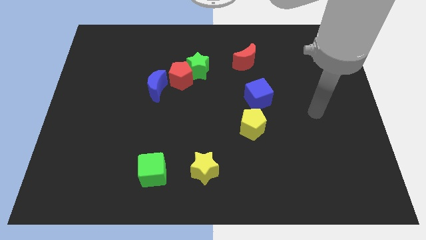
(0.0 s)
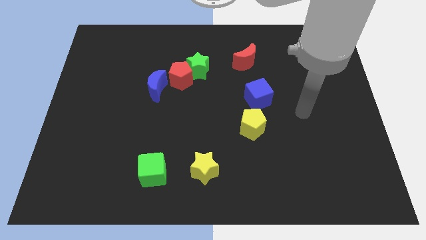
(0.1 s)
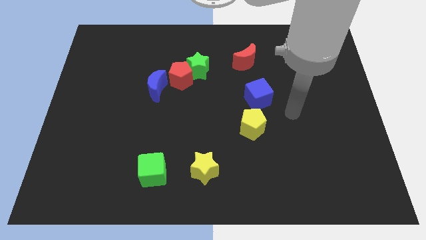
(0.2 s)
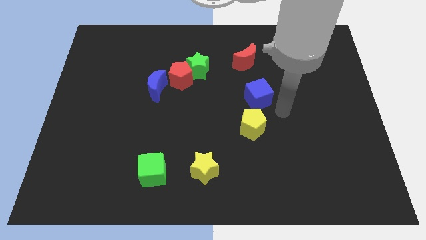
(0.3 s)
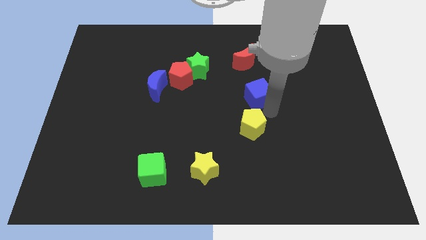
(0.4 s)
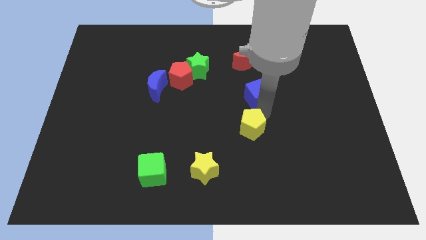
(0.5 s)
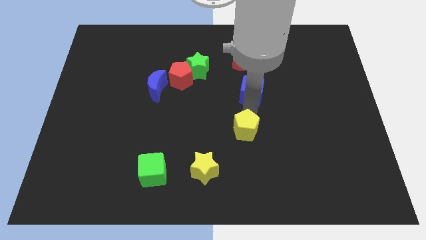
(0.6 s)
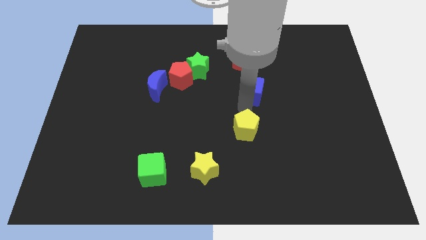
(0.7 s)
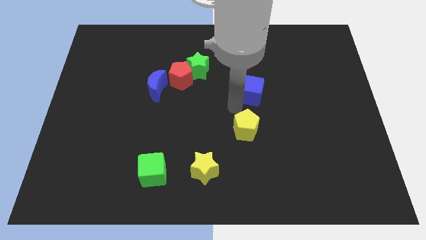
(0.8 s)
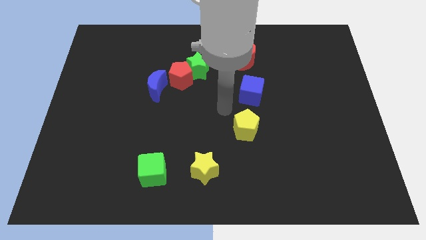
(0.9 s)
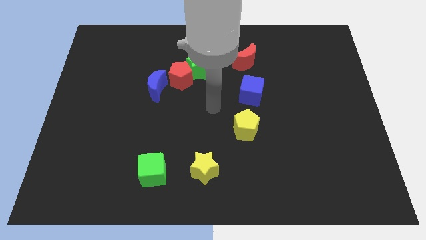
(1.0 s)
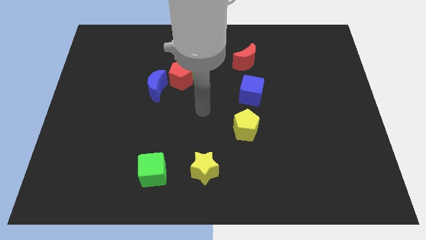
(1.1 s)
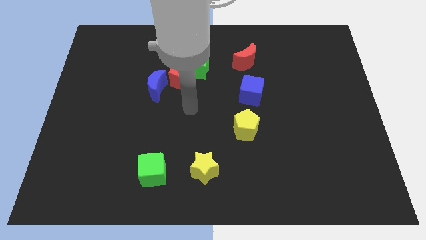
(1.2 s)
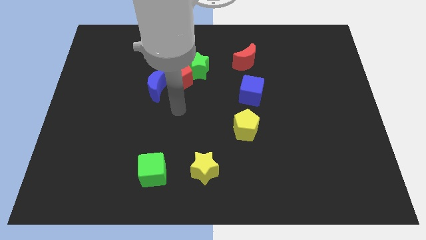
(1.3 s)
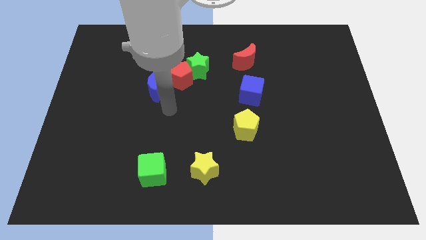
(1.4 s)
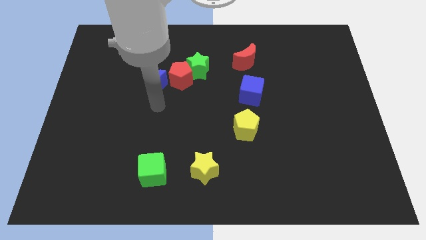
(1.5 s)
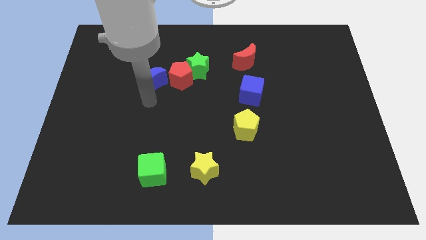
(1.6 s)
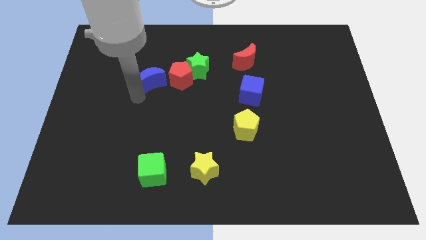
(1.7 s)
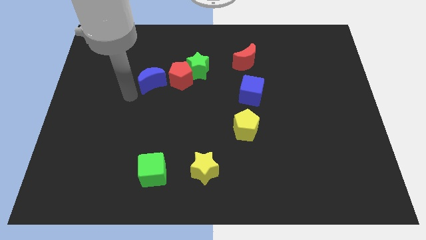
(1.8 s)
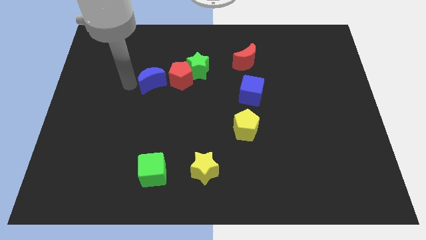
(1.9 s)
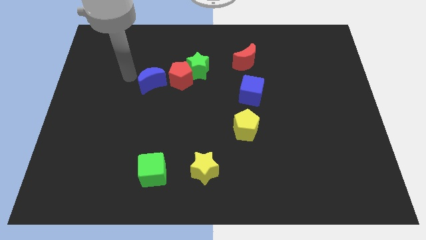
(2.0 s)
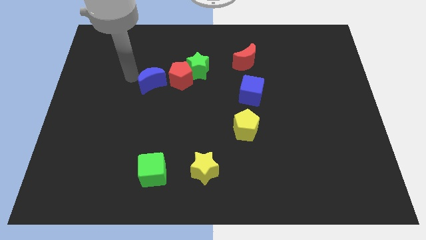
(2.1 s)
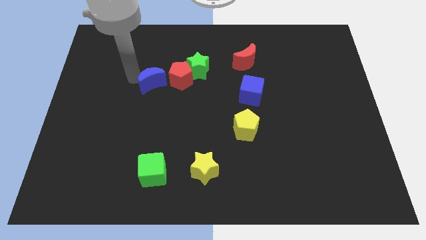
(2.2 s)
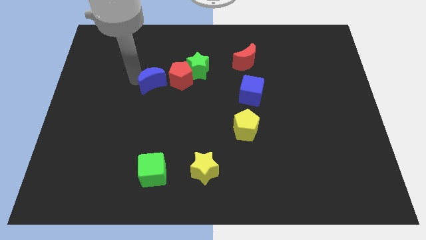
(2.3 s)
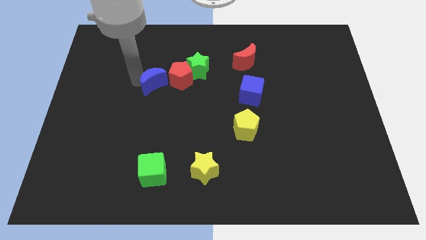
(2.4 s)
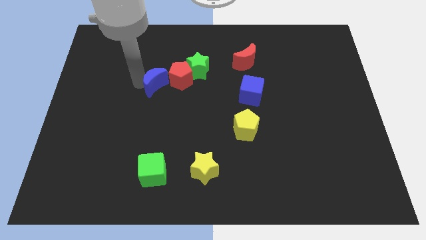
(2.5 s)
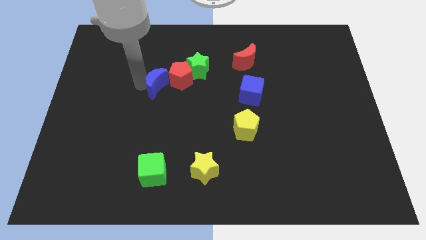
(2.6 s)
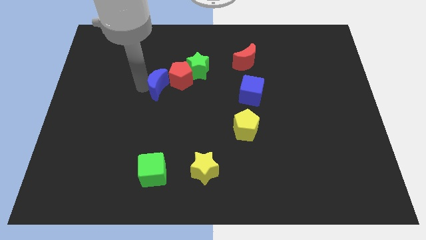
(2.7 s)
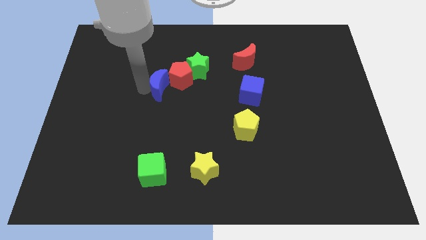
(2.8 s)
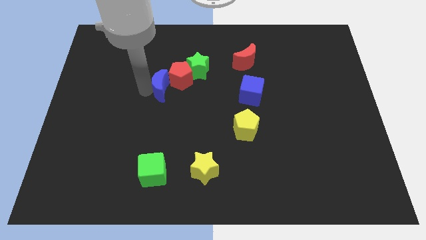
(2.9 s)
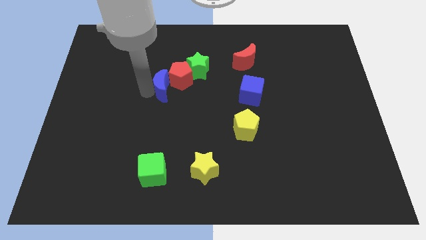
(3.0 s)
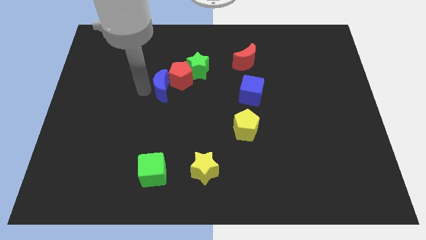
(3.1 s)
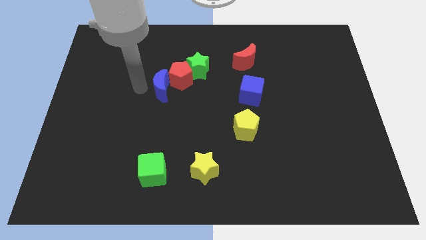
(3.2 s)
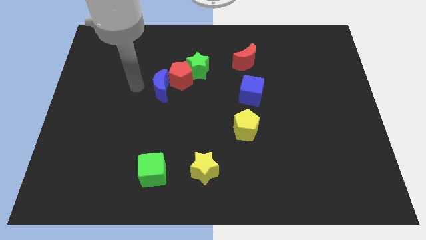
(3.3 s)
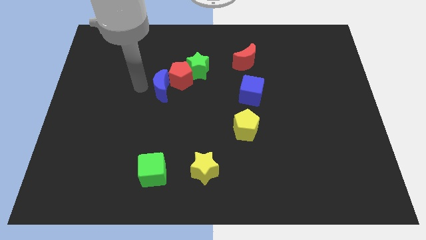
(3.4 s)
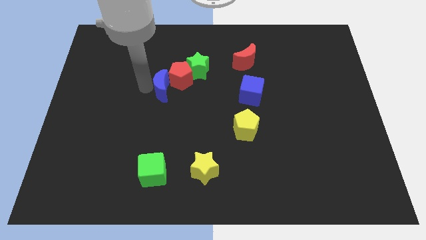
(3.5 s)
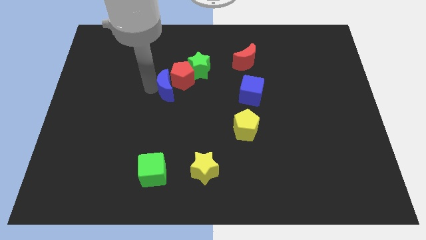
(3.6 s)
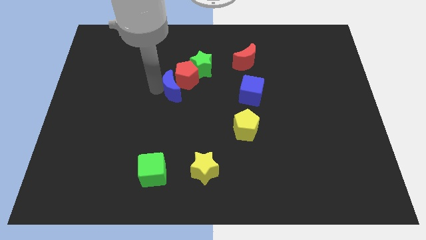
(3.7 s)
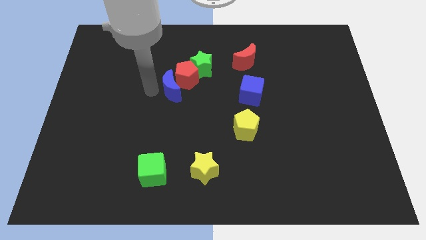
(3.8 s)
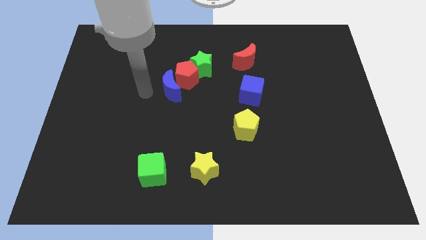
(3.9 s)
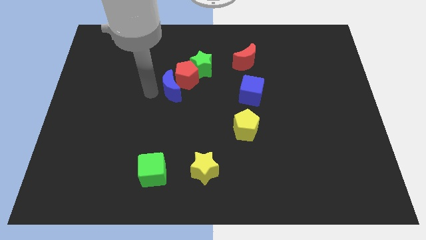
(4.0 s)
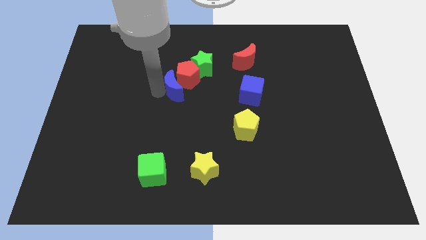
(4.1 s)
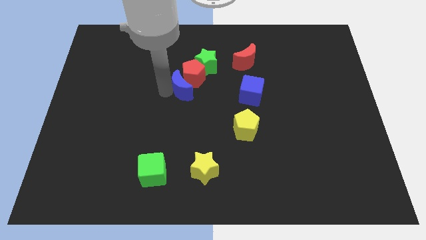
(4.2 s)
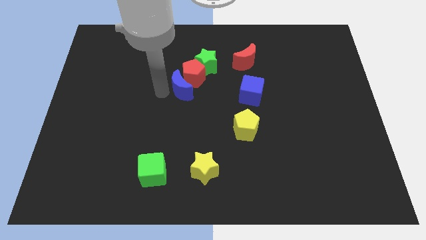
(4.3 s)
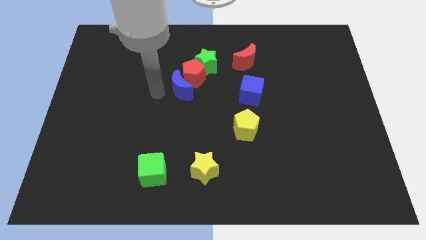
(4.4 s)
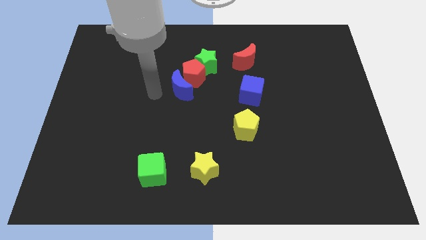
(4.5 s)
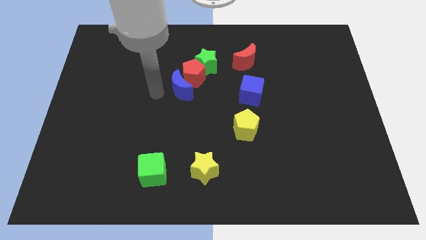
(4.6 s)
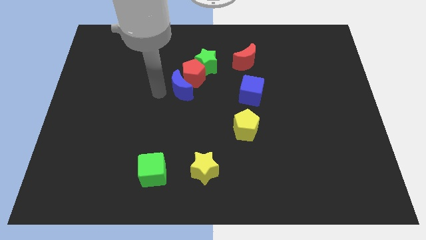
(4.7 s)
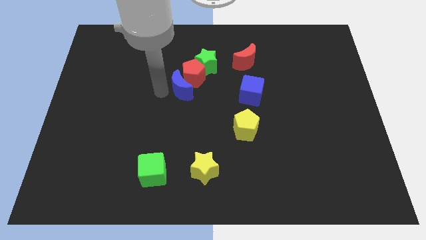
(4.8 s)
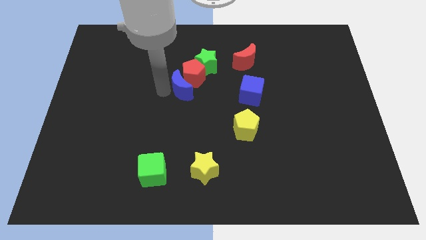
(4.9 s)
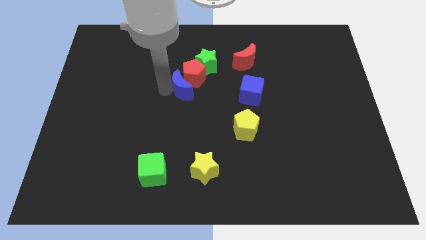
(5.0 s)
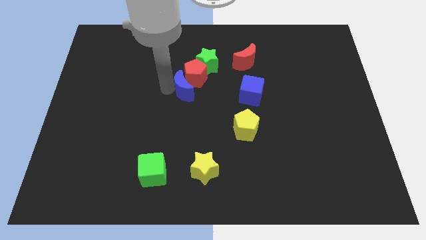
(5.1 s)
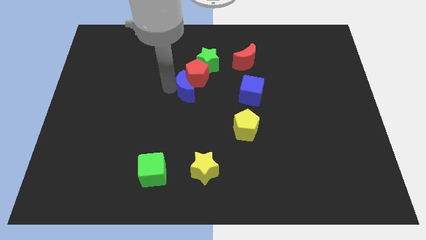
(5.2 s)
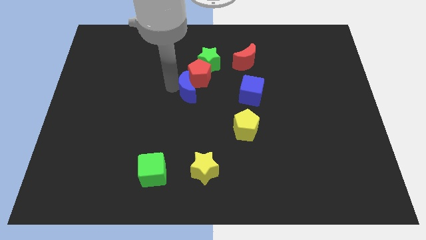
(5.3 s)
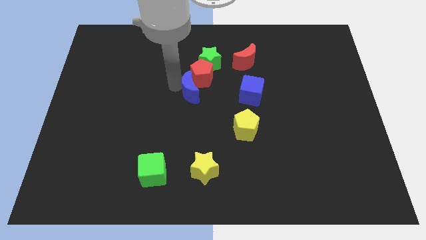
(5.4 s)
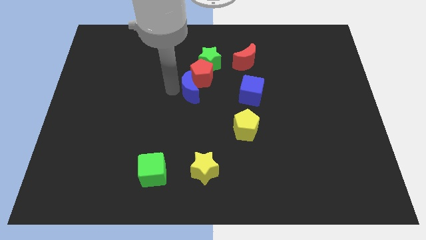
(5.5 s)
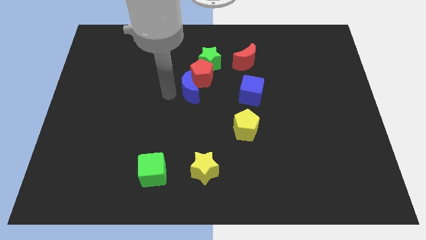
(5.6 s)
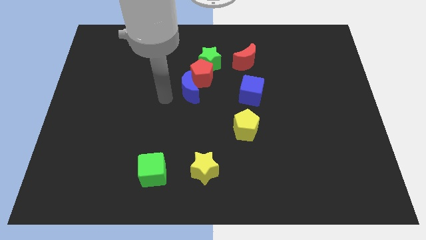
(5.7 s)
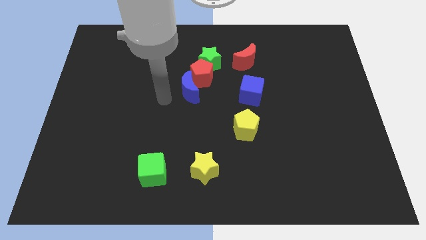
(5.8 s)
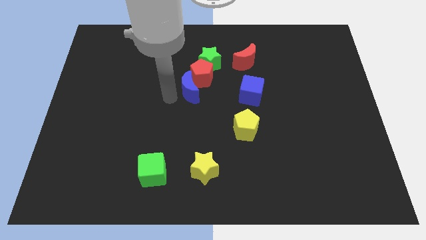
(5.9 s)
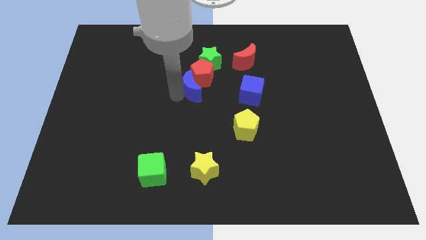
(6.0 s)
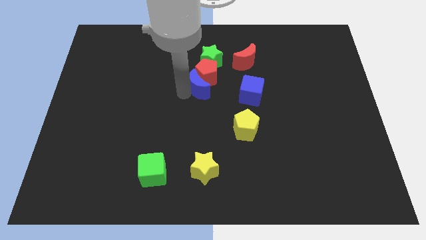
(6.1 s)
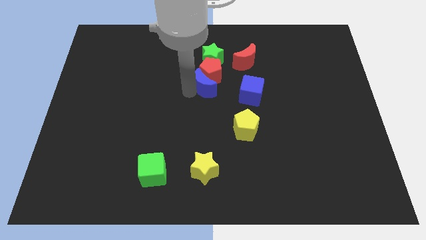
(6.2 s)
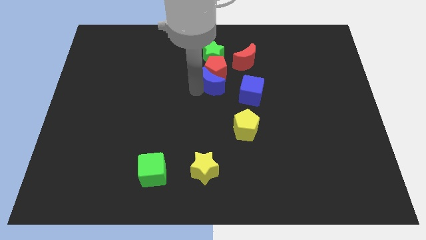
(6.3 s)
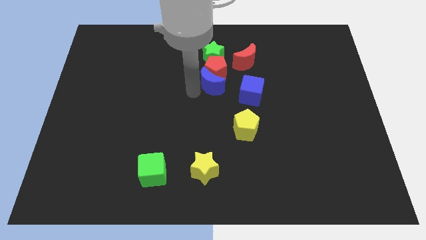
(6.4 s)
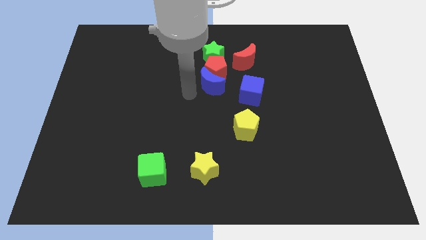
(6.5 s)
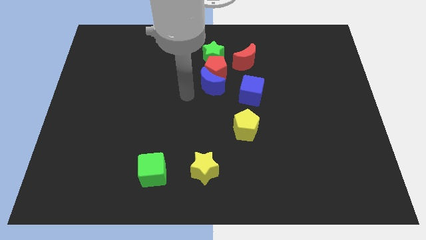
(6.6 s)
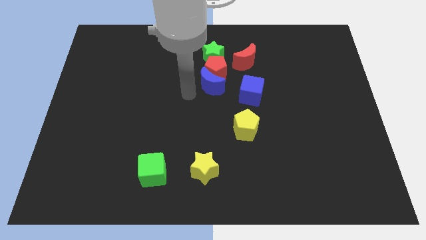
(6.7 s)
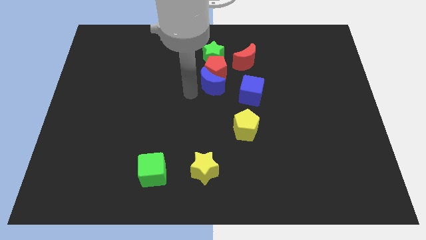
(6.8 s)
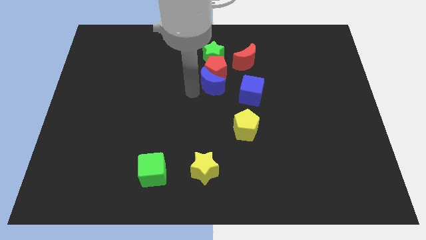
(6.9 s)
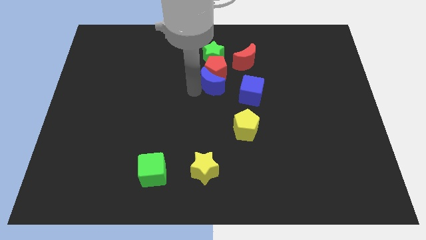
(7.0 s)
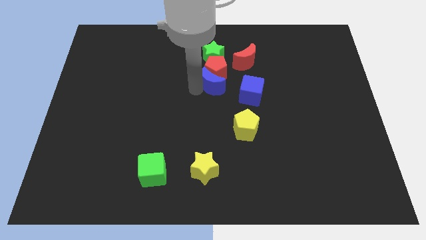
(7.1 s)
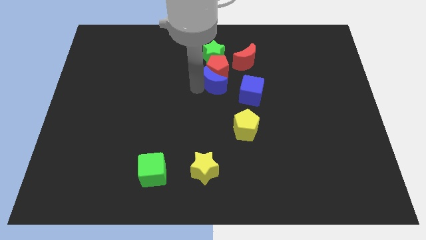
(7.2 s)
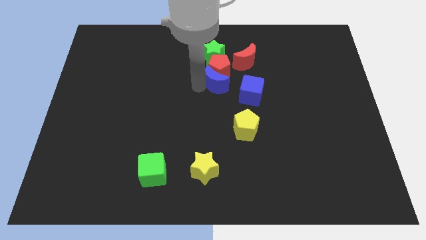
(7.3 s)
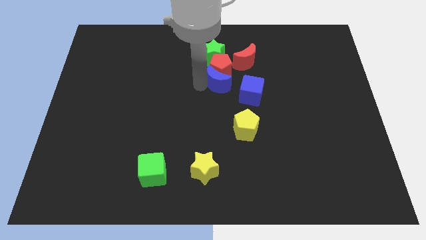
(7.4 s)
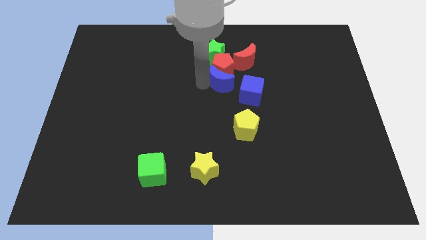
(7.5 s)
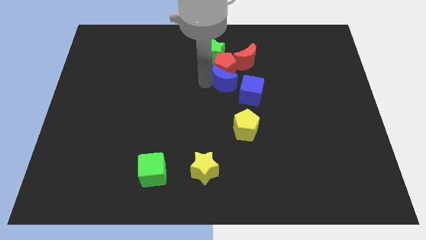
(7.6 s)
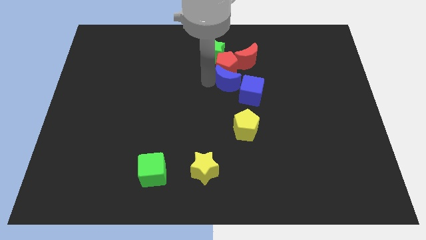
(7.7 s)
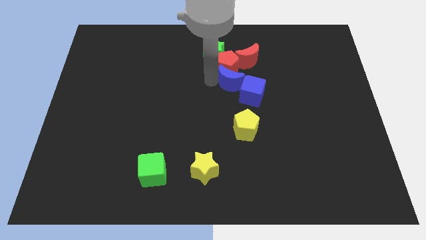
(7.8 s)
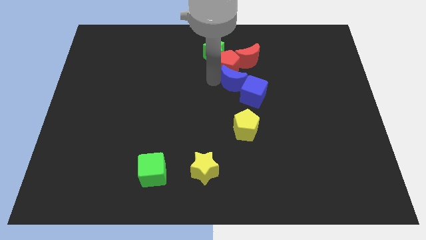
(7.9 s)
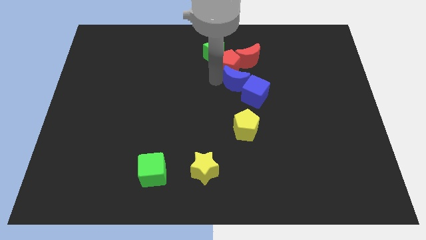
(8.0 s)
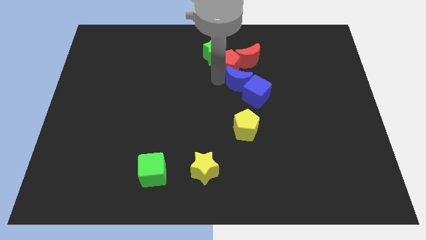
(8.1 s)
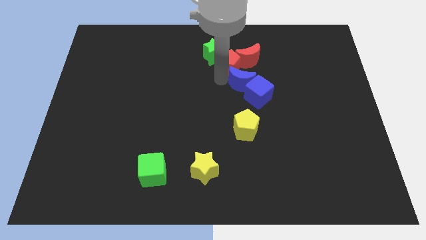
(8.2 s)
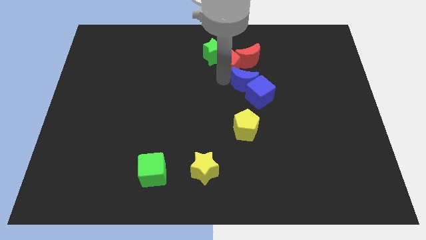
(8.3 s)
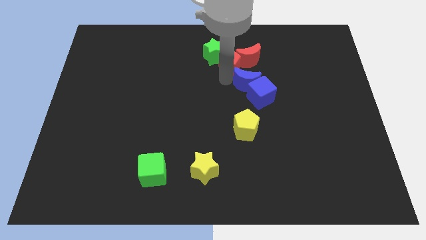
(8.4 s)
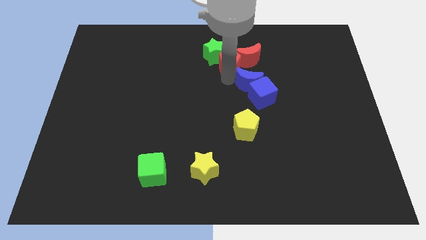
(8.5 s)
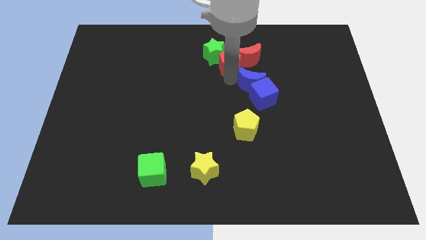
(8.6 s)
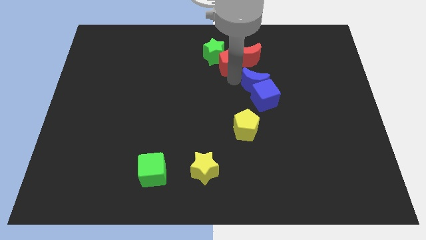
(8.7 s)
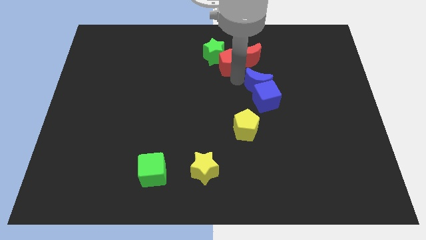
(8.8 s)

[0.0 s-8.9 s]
push the blue moon diagonally up and to the right of the blue cube
